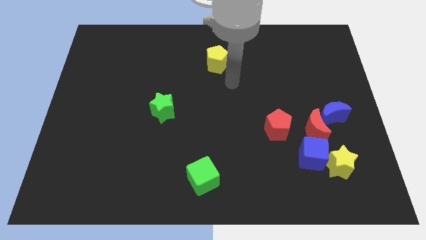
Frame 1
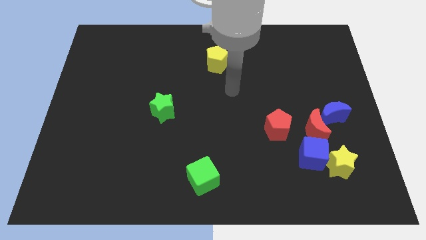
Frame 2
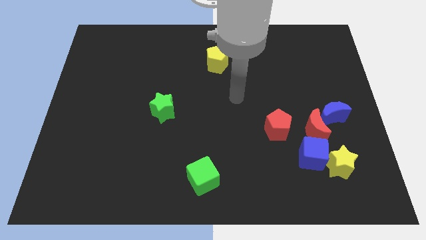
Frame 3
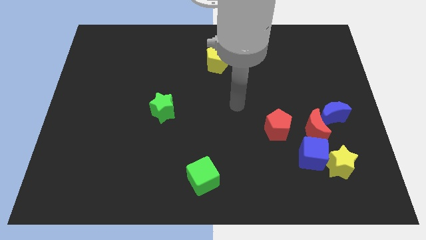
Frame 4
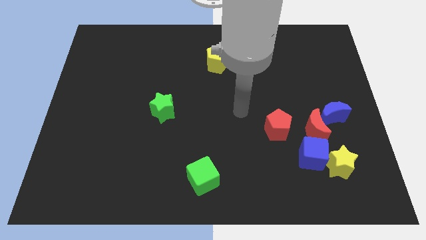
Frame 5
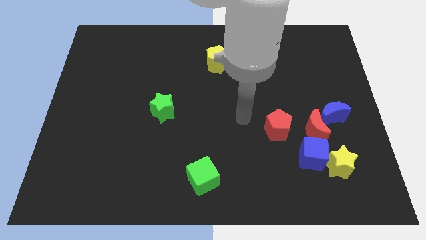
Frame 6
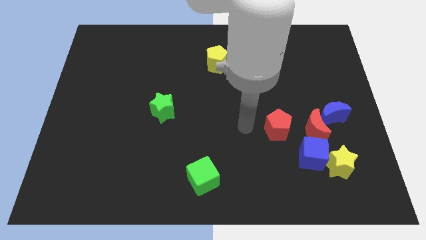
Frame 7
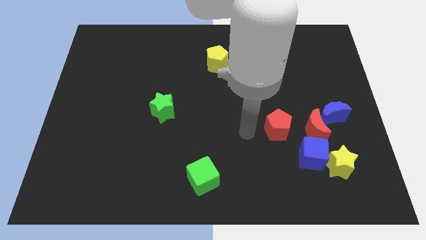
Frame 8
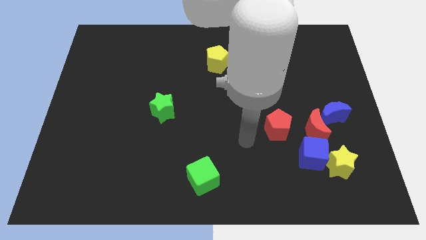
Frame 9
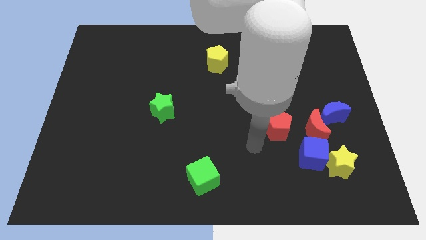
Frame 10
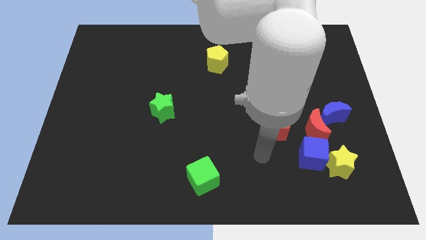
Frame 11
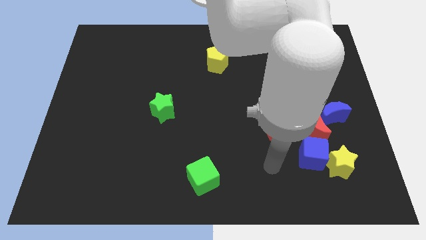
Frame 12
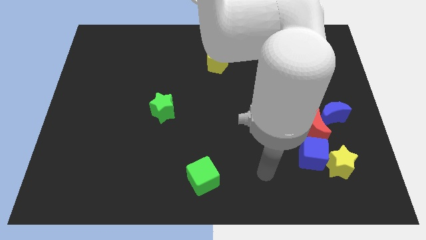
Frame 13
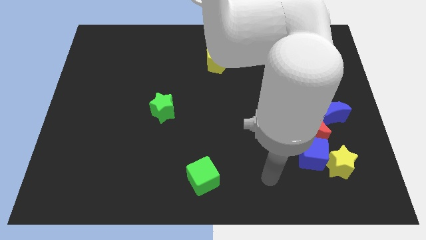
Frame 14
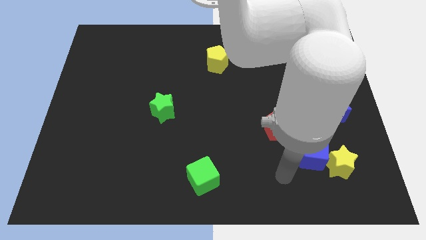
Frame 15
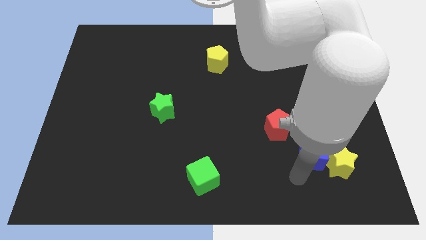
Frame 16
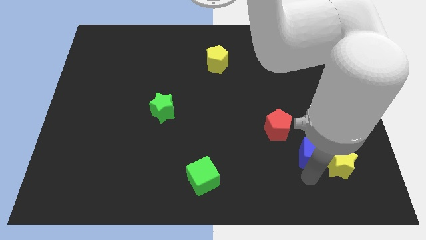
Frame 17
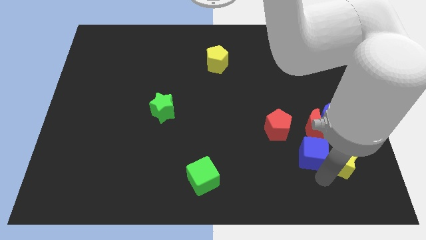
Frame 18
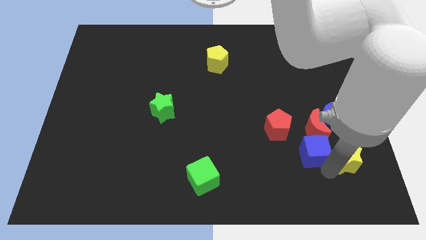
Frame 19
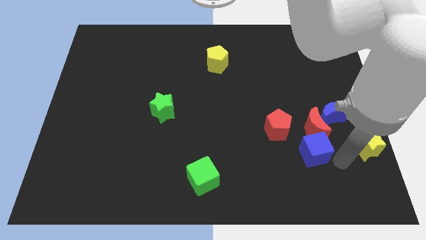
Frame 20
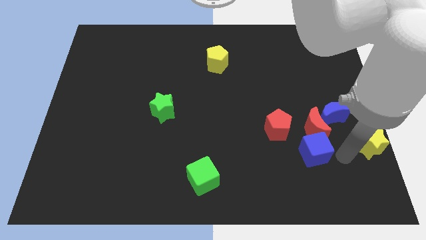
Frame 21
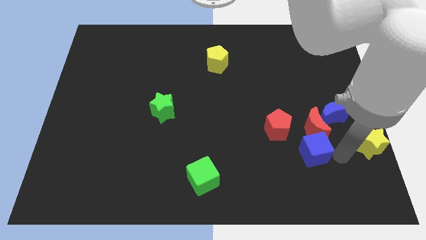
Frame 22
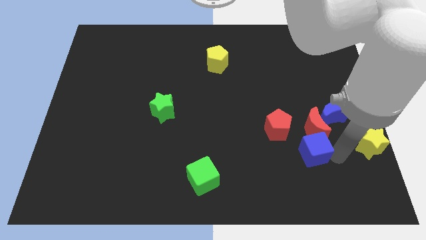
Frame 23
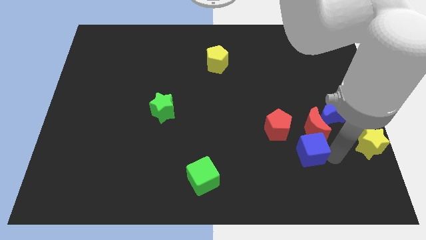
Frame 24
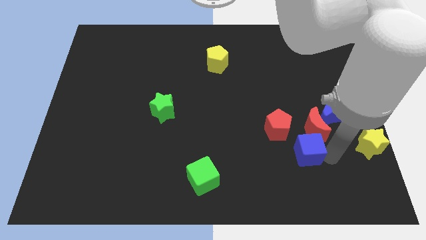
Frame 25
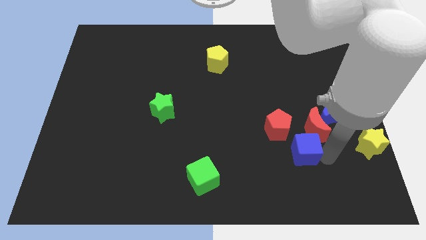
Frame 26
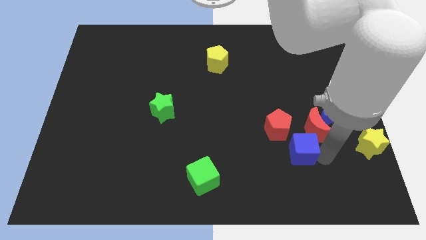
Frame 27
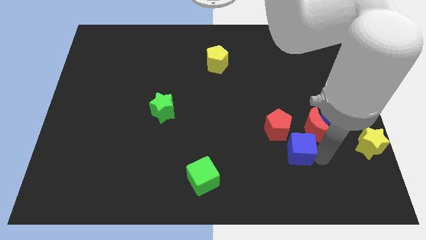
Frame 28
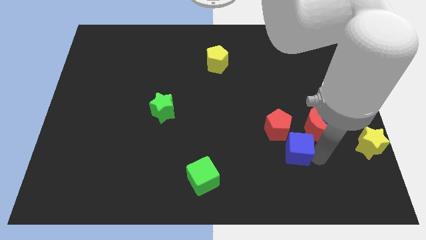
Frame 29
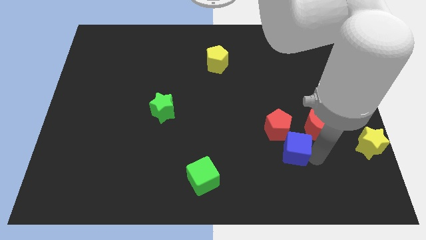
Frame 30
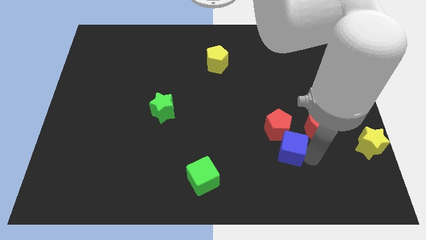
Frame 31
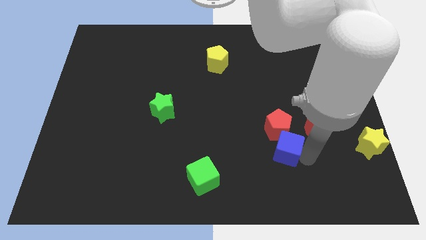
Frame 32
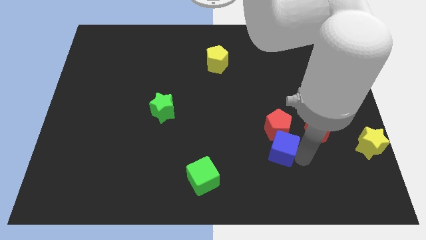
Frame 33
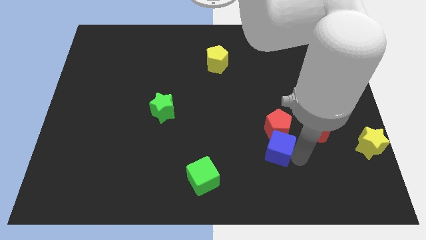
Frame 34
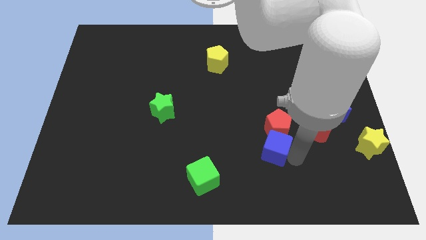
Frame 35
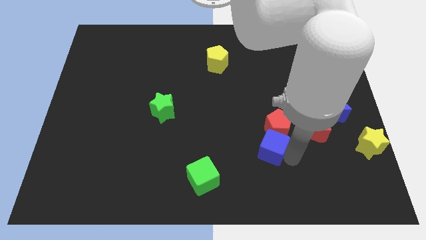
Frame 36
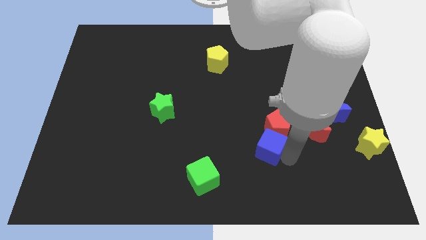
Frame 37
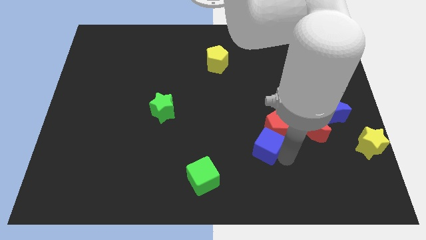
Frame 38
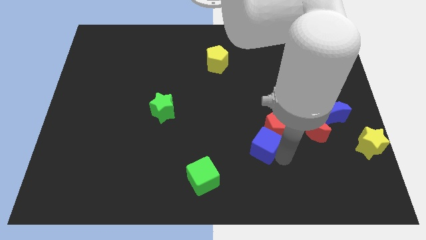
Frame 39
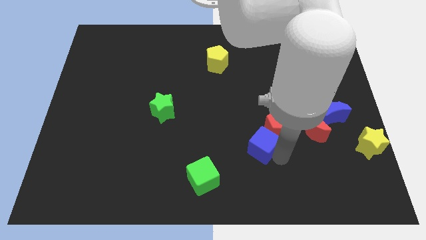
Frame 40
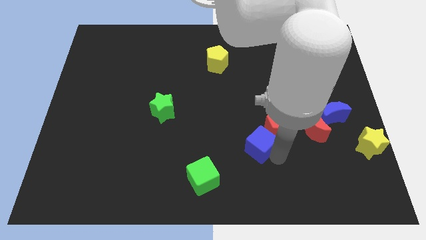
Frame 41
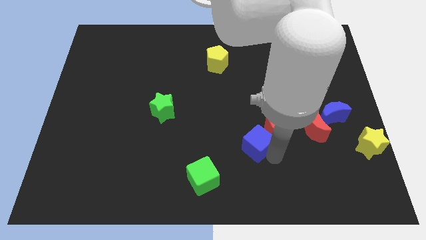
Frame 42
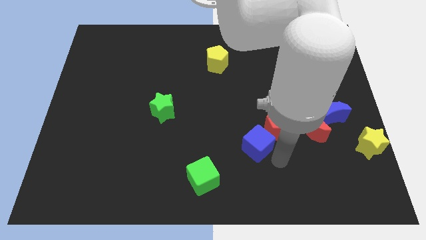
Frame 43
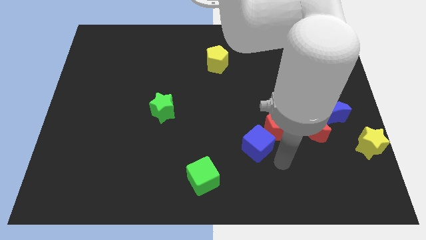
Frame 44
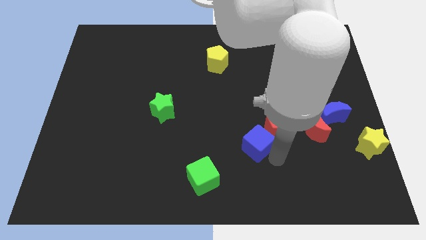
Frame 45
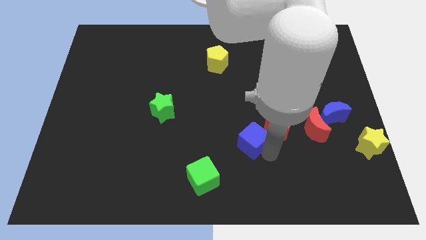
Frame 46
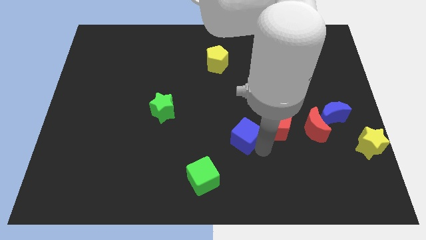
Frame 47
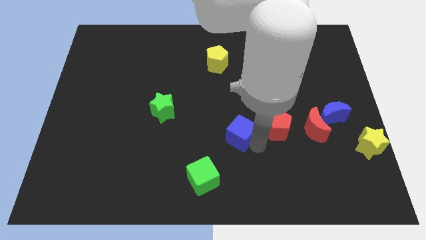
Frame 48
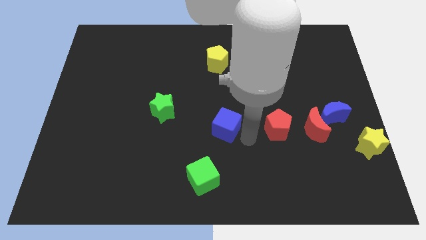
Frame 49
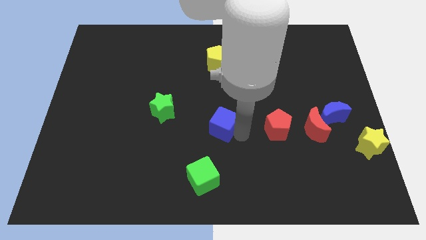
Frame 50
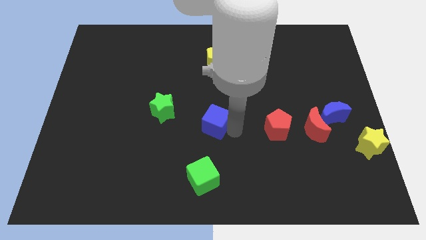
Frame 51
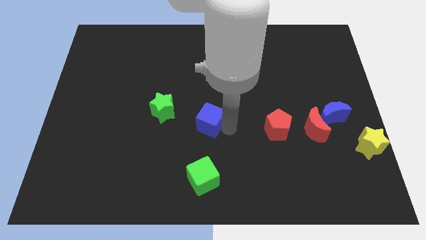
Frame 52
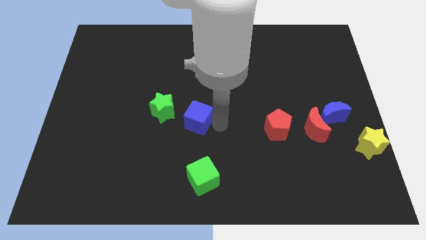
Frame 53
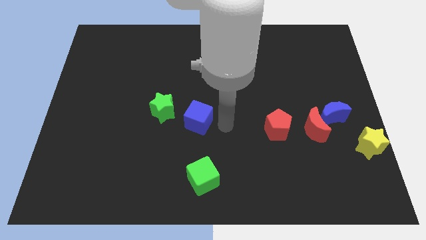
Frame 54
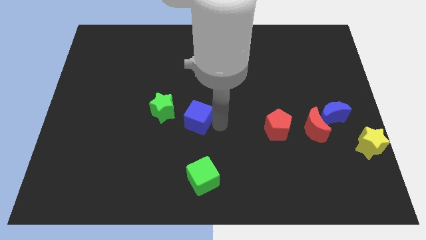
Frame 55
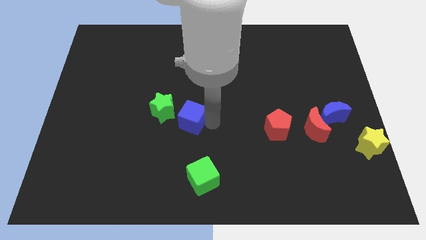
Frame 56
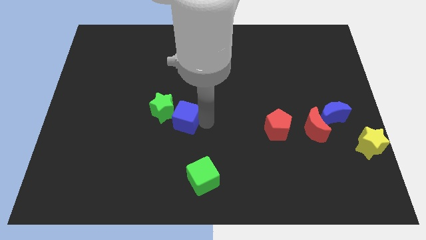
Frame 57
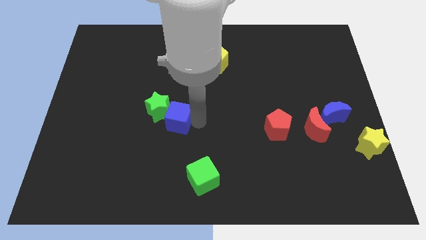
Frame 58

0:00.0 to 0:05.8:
slide the blue cube towards the green star

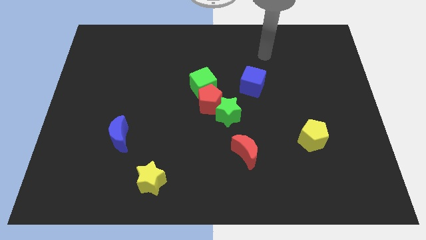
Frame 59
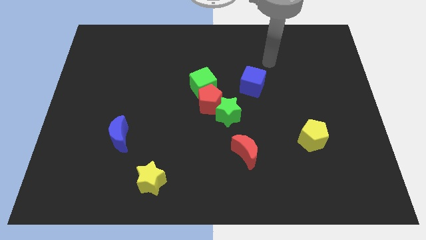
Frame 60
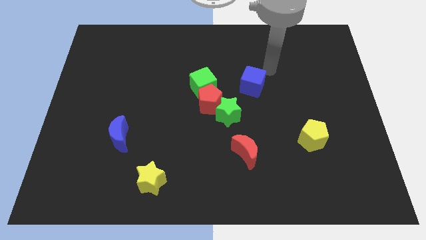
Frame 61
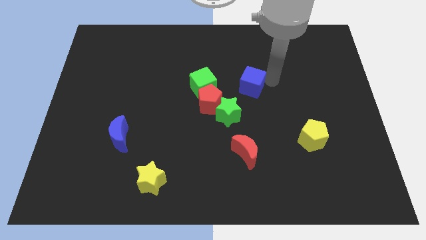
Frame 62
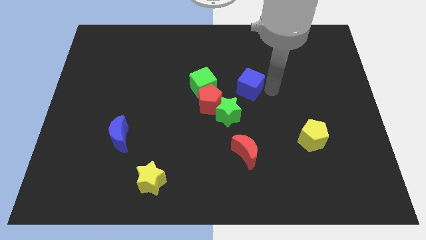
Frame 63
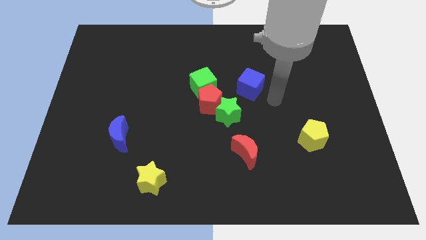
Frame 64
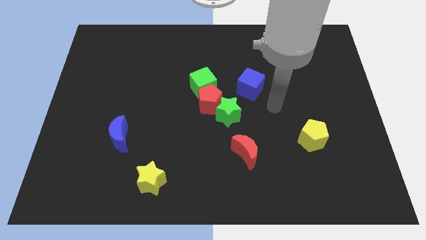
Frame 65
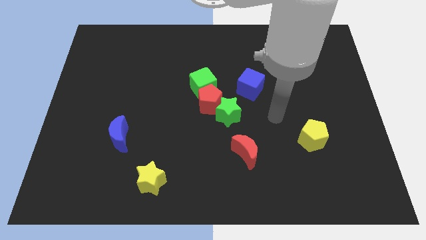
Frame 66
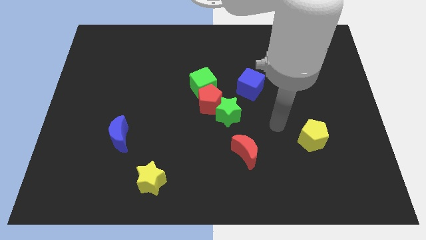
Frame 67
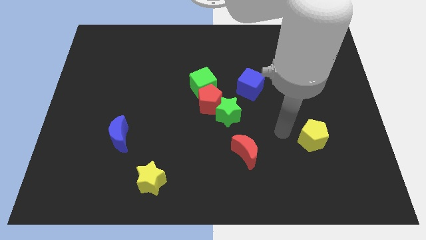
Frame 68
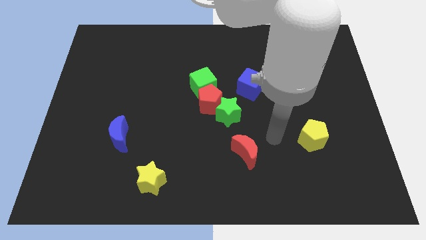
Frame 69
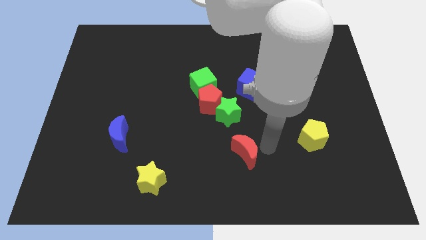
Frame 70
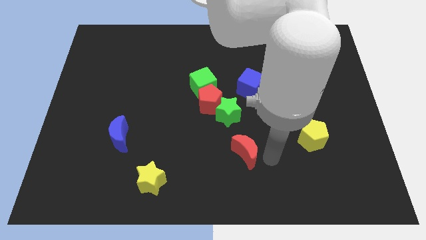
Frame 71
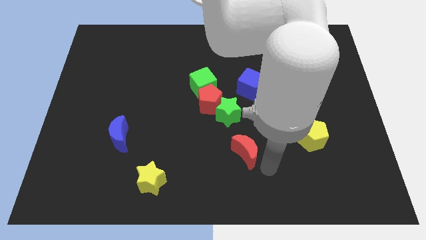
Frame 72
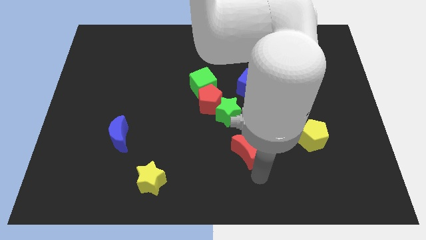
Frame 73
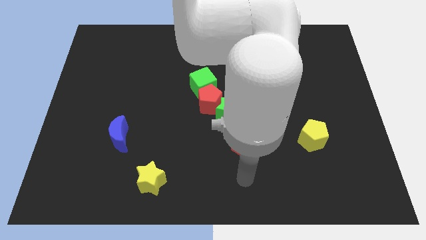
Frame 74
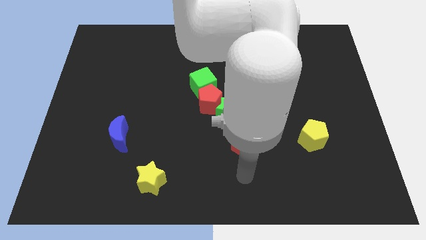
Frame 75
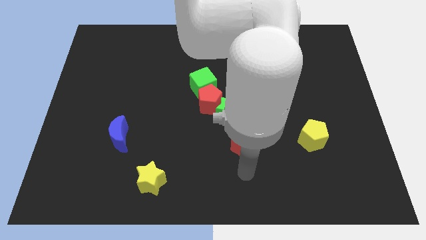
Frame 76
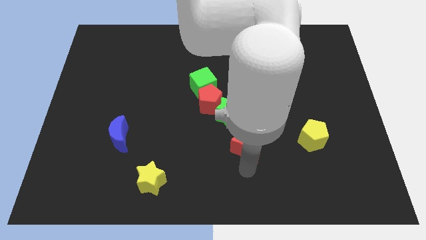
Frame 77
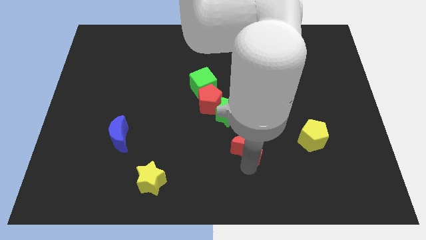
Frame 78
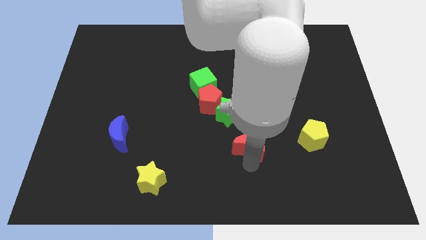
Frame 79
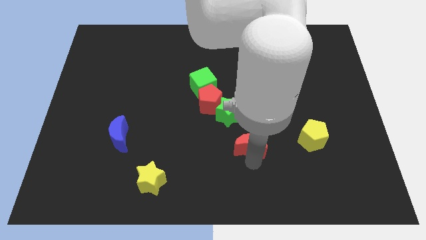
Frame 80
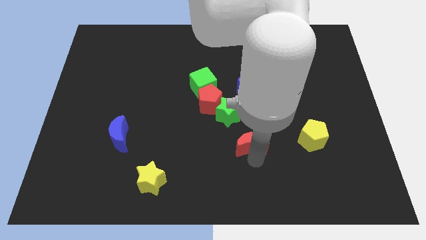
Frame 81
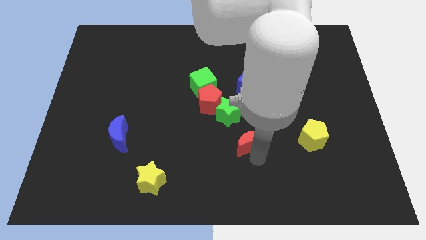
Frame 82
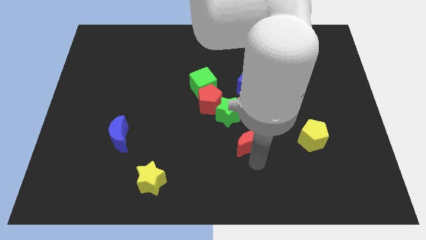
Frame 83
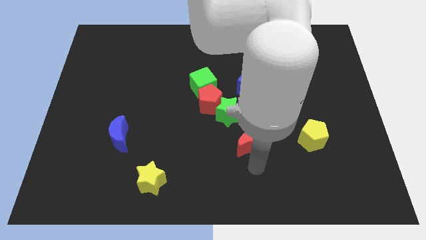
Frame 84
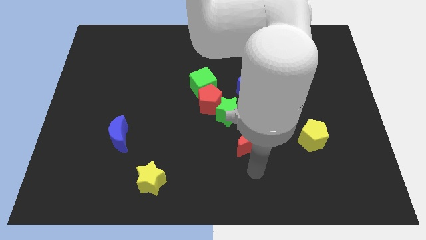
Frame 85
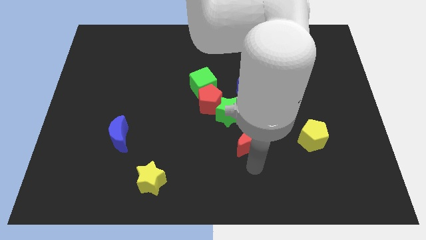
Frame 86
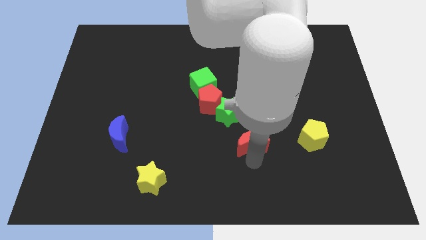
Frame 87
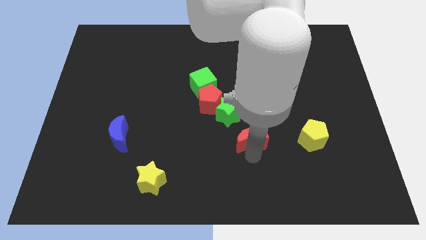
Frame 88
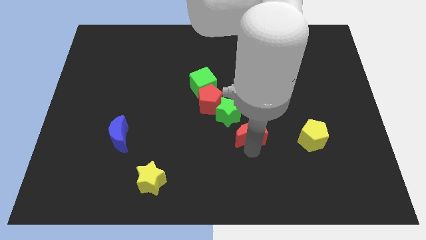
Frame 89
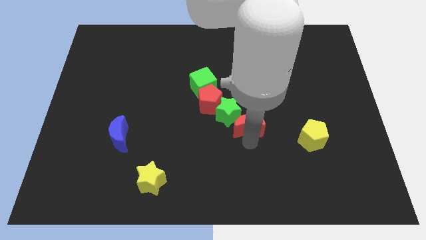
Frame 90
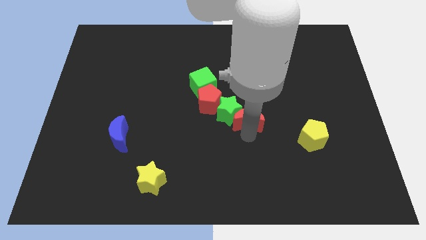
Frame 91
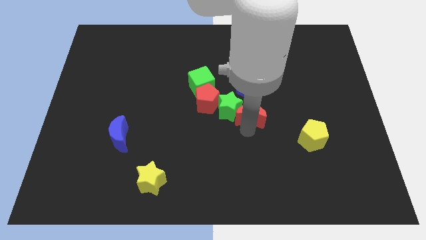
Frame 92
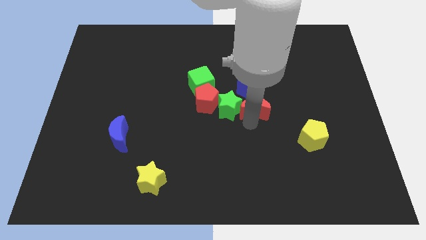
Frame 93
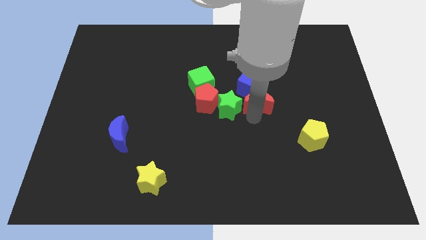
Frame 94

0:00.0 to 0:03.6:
push the red moon towards the blue cube
